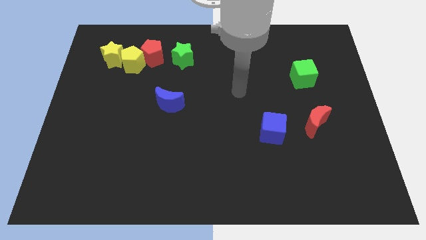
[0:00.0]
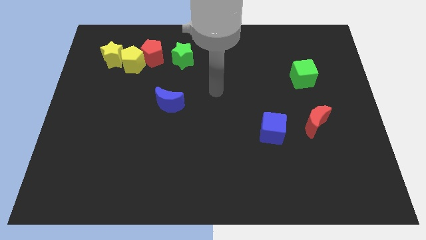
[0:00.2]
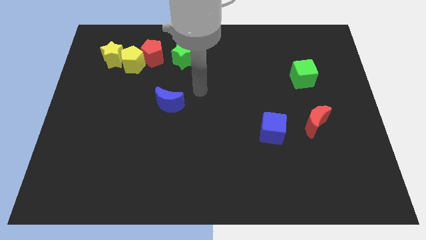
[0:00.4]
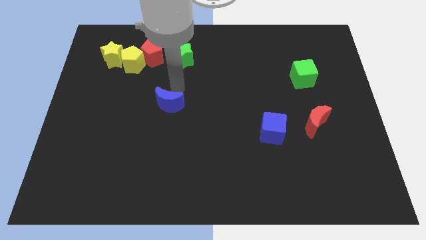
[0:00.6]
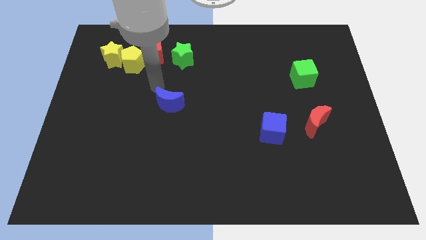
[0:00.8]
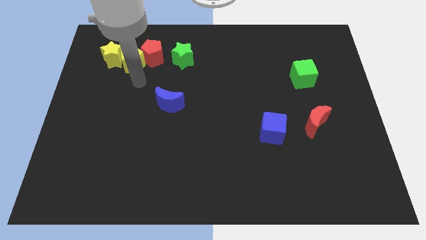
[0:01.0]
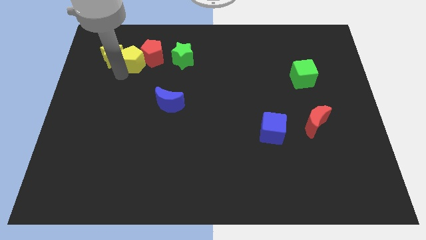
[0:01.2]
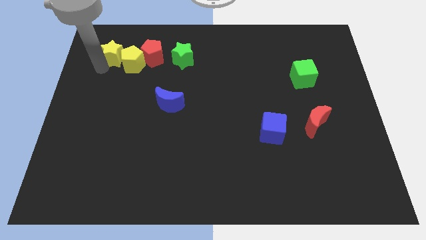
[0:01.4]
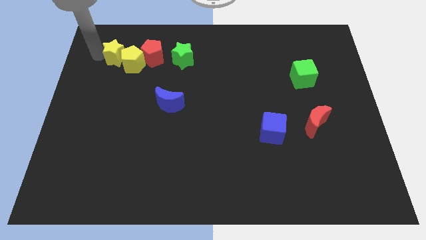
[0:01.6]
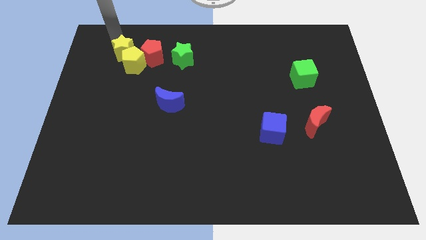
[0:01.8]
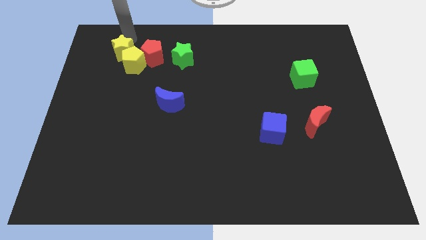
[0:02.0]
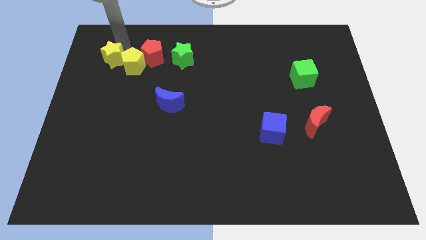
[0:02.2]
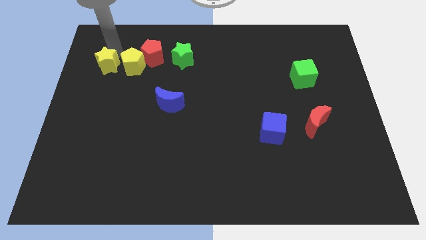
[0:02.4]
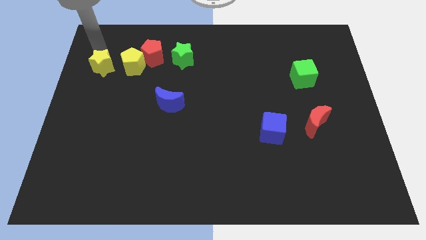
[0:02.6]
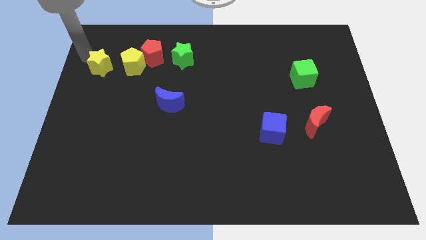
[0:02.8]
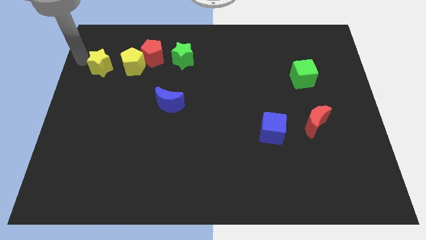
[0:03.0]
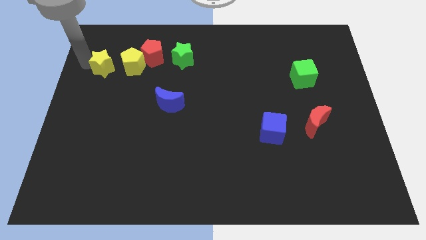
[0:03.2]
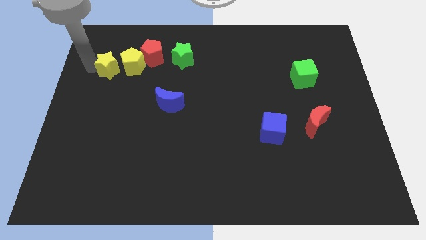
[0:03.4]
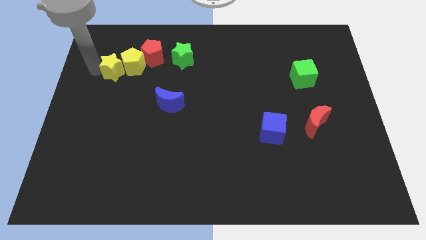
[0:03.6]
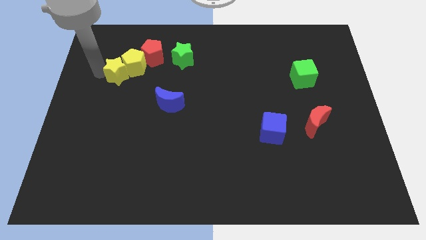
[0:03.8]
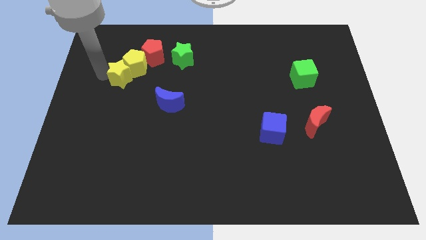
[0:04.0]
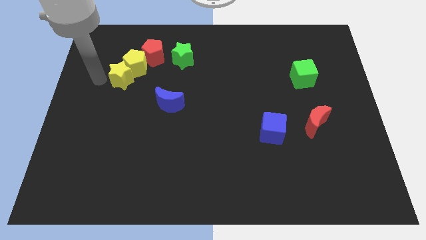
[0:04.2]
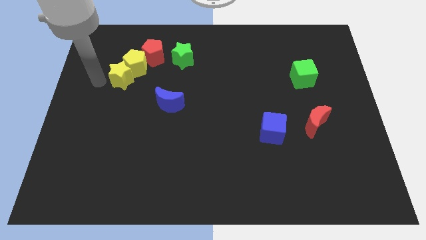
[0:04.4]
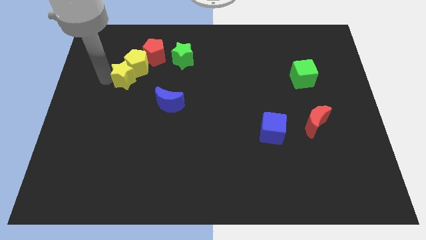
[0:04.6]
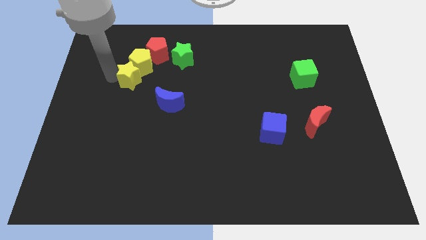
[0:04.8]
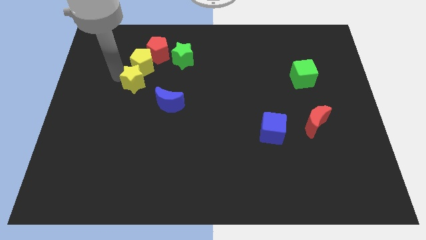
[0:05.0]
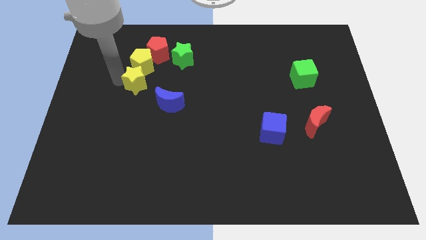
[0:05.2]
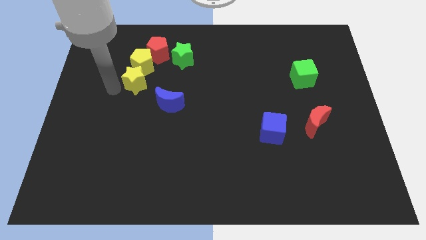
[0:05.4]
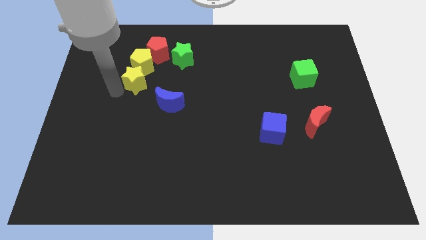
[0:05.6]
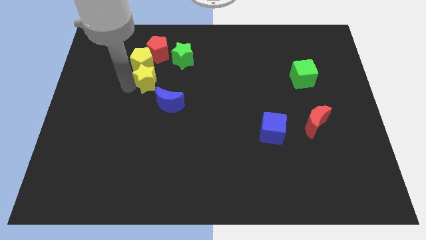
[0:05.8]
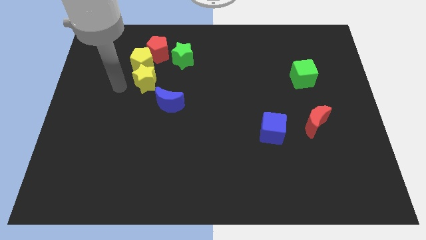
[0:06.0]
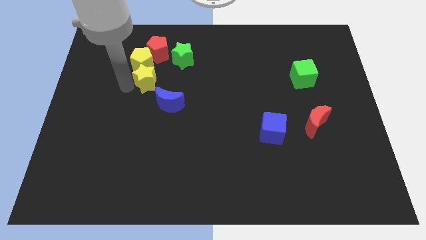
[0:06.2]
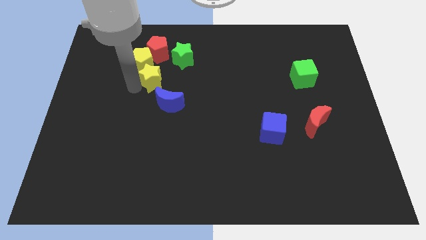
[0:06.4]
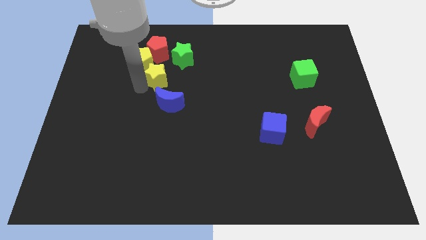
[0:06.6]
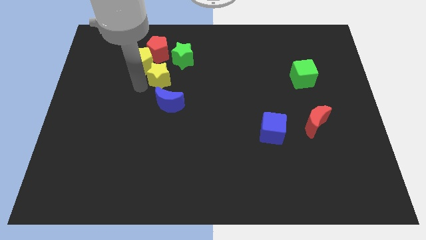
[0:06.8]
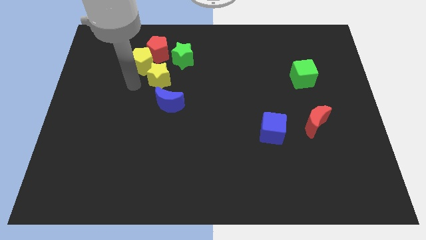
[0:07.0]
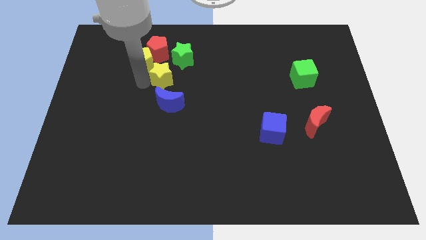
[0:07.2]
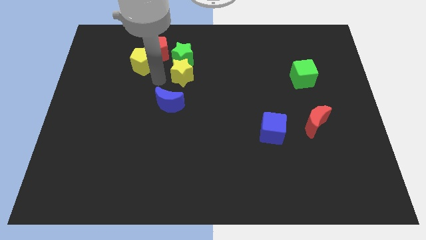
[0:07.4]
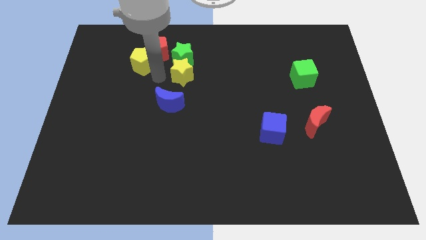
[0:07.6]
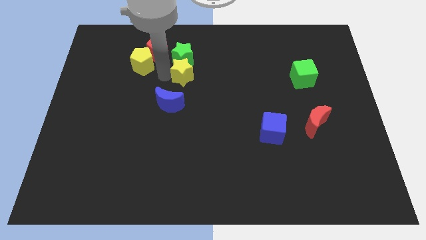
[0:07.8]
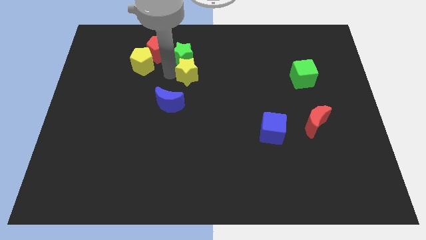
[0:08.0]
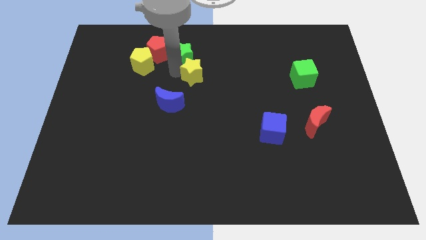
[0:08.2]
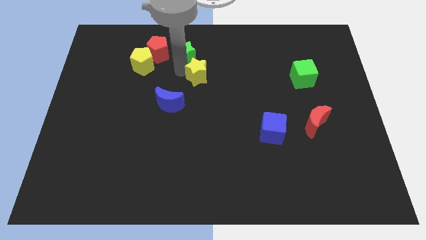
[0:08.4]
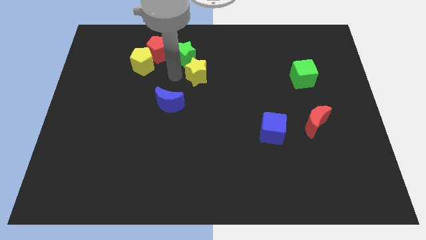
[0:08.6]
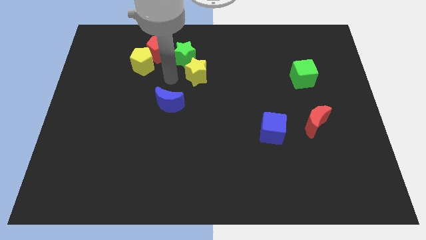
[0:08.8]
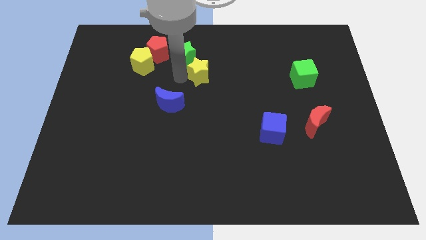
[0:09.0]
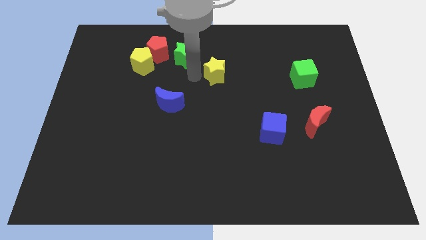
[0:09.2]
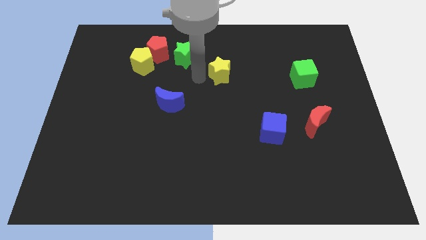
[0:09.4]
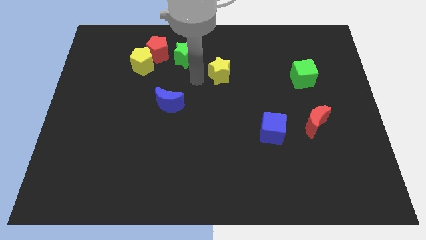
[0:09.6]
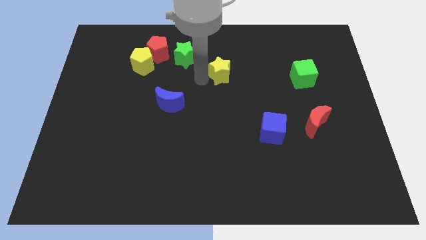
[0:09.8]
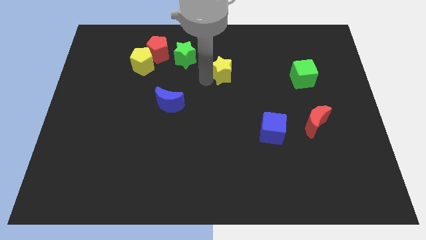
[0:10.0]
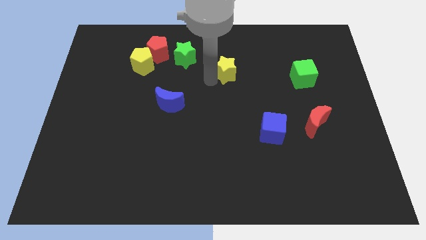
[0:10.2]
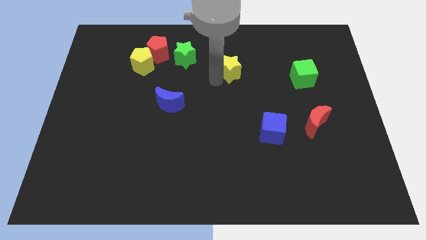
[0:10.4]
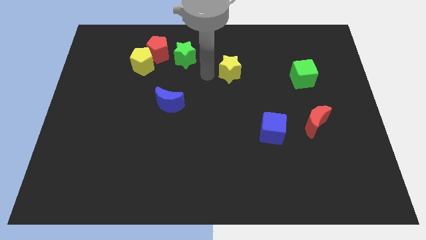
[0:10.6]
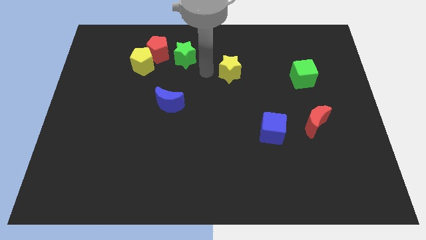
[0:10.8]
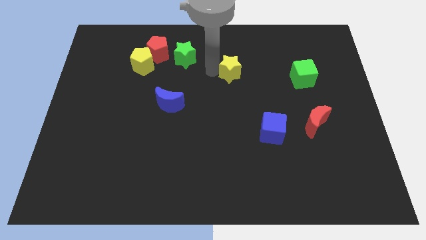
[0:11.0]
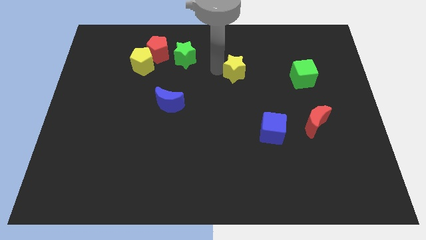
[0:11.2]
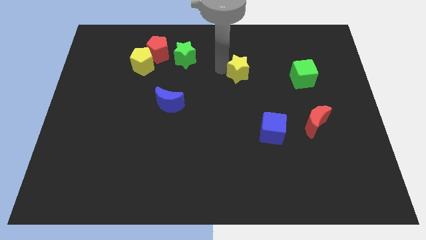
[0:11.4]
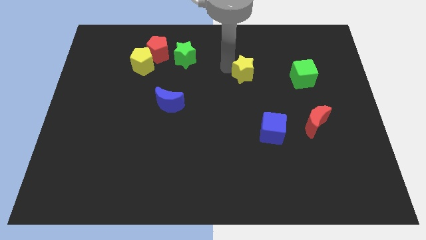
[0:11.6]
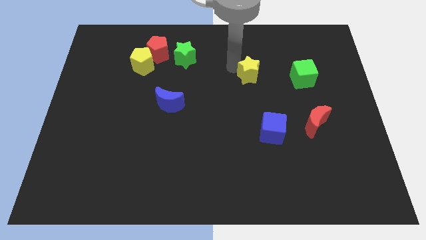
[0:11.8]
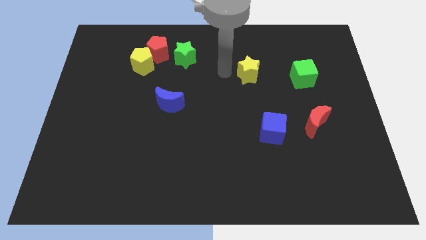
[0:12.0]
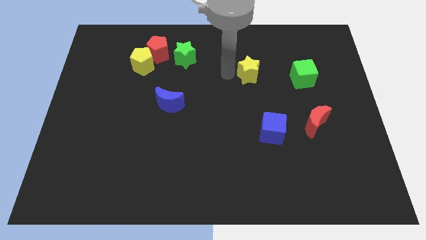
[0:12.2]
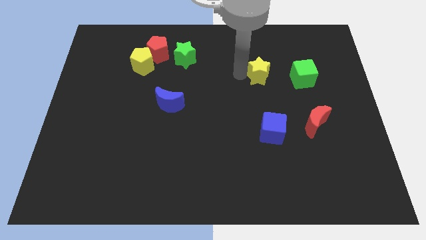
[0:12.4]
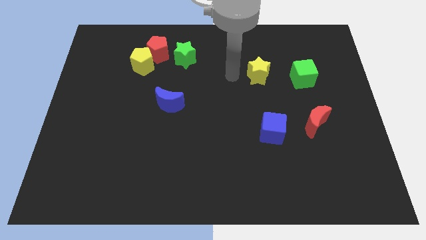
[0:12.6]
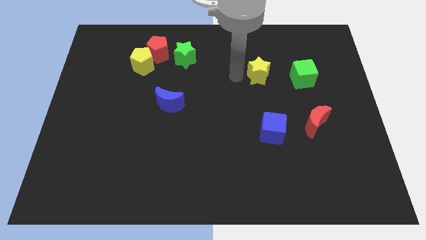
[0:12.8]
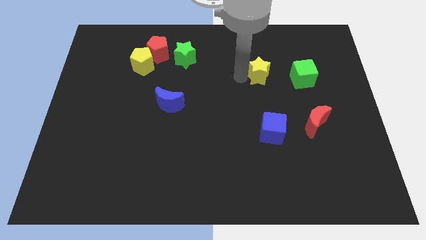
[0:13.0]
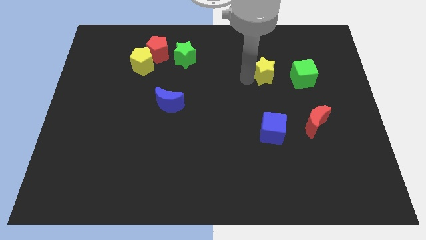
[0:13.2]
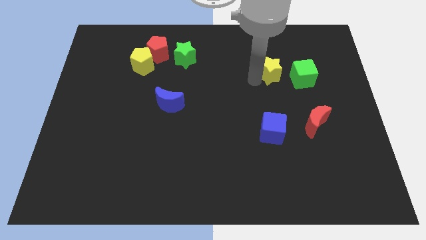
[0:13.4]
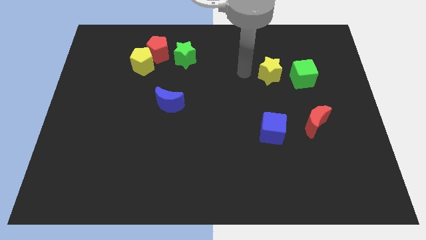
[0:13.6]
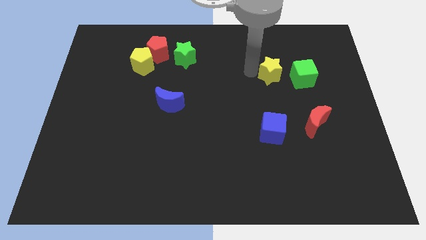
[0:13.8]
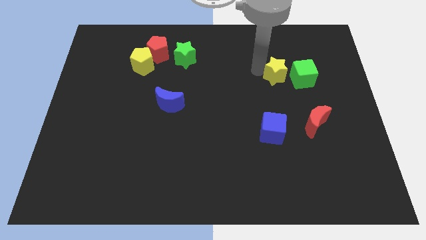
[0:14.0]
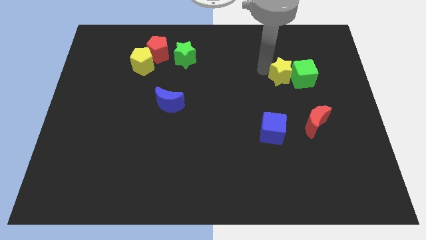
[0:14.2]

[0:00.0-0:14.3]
push the yellow star close to the green cube
